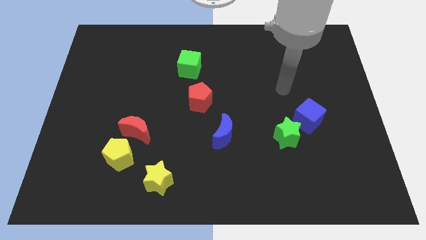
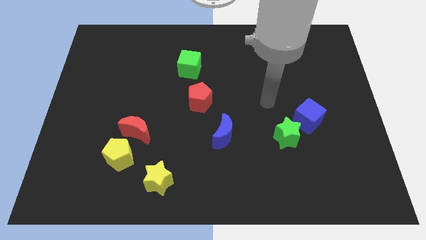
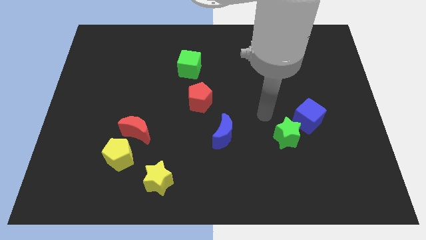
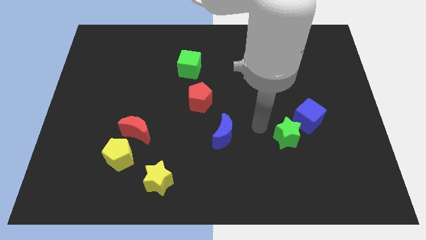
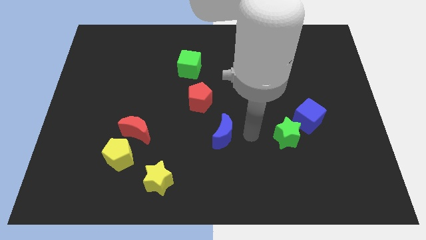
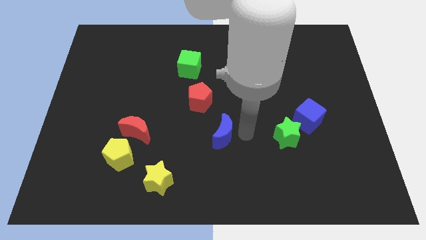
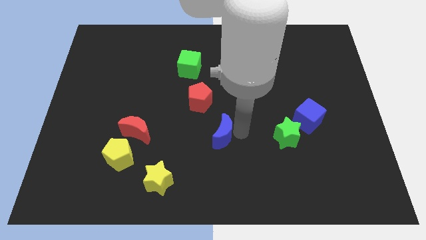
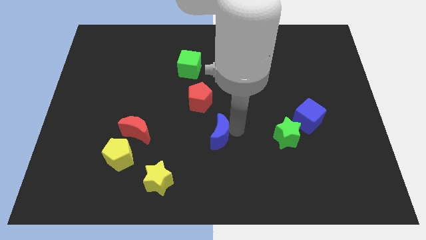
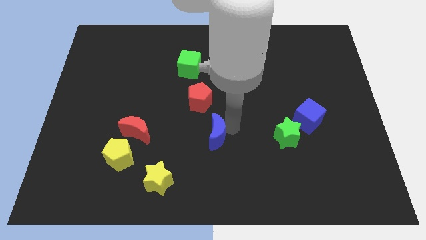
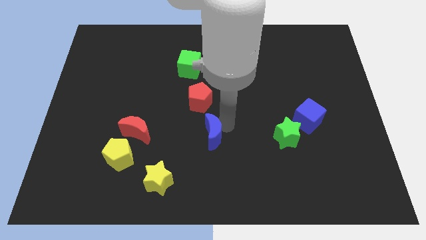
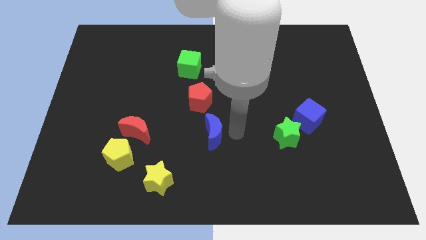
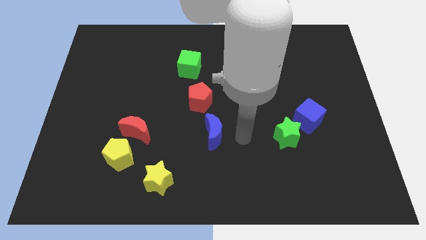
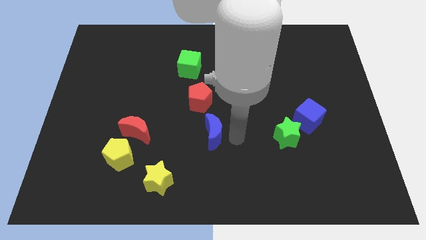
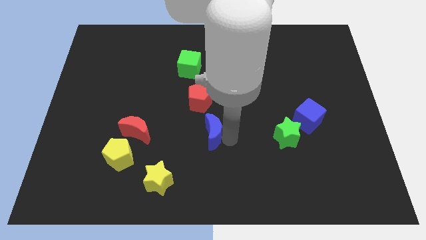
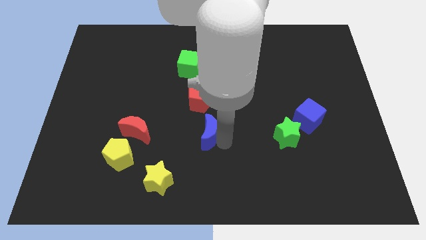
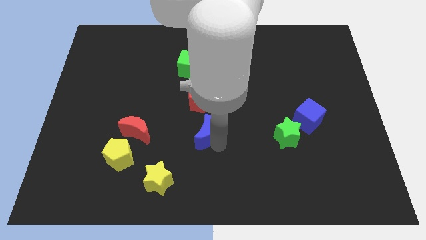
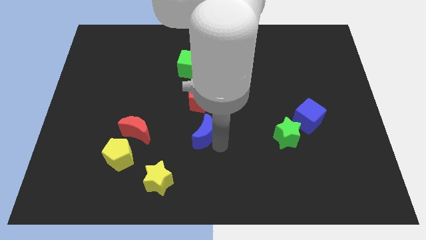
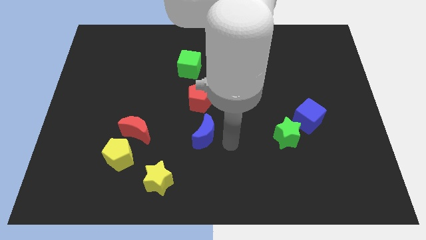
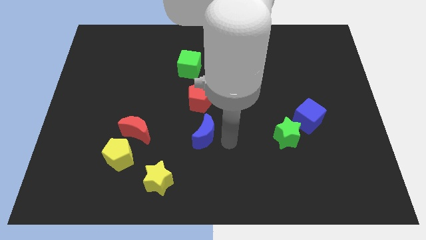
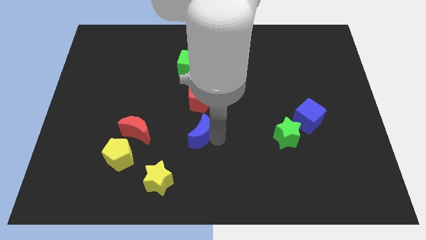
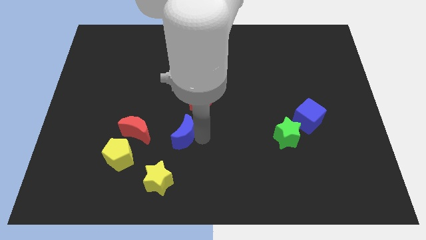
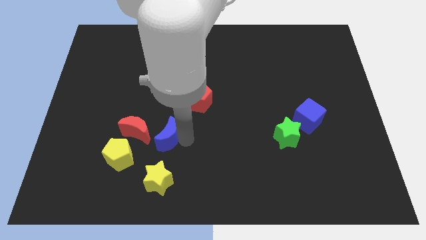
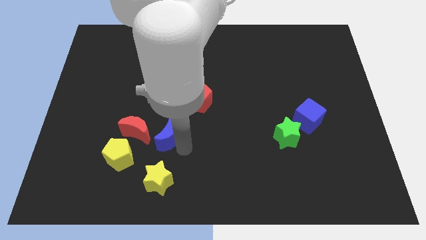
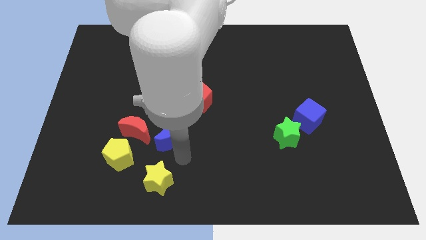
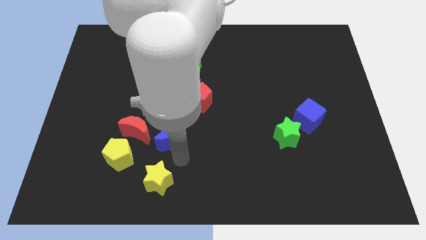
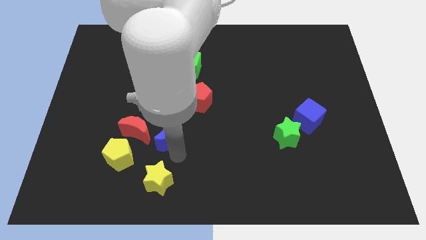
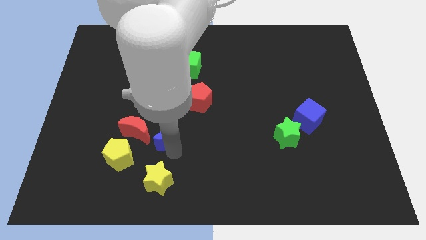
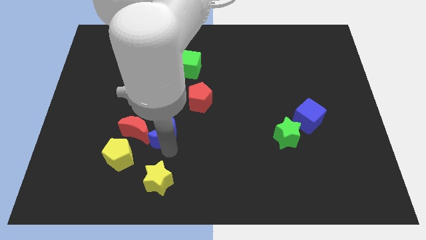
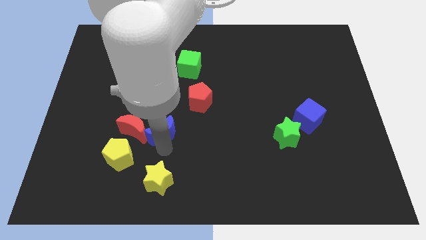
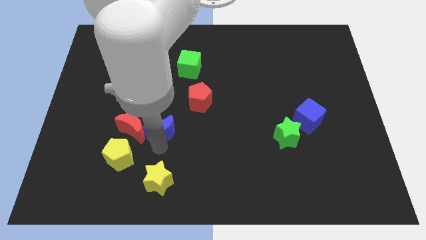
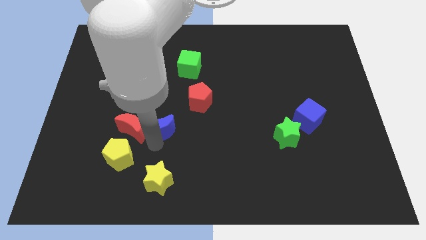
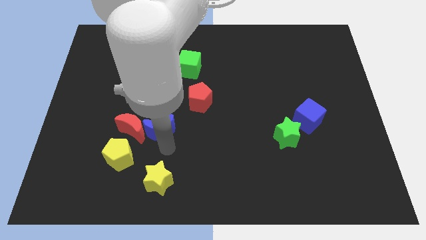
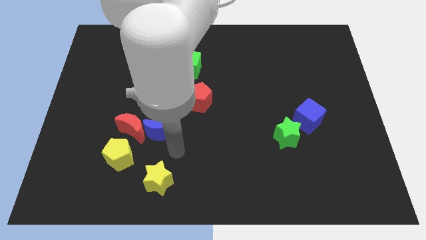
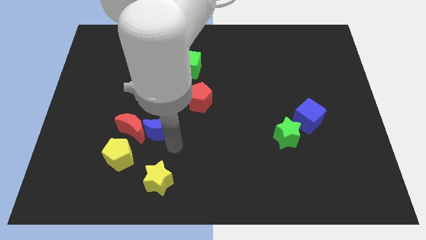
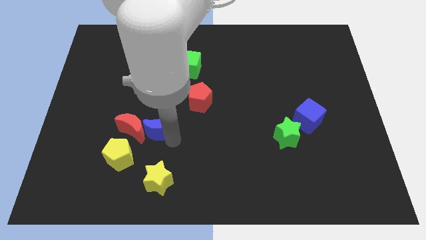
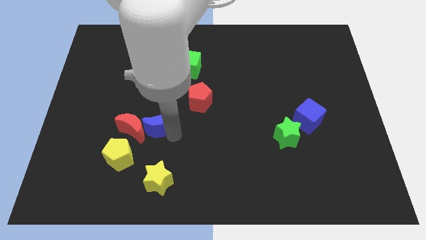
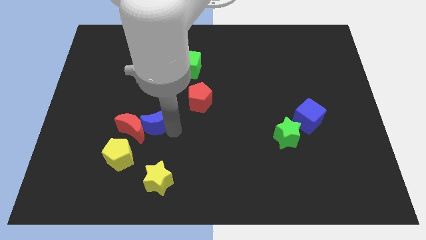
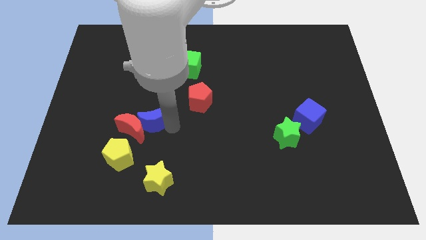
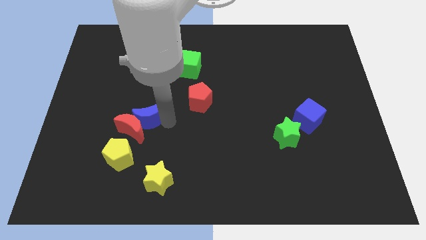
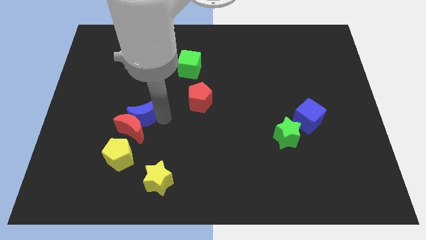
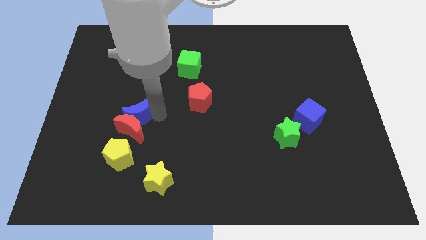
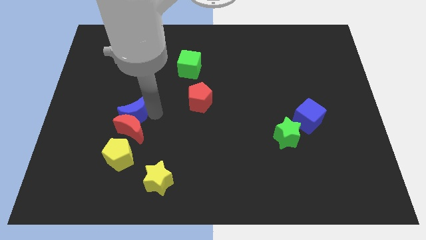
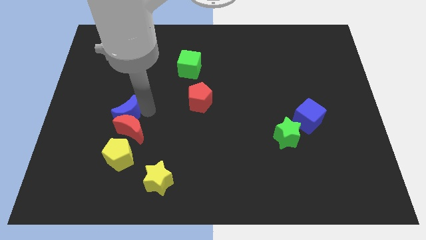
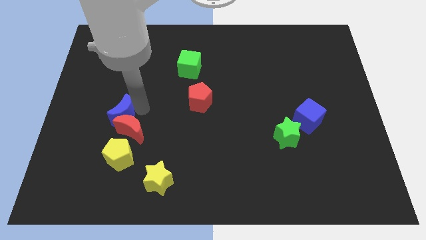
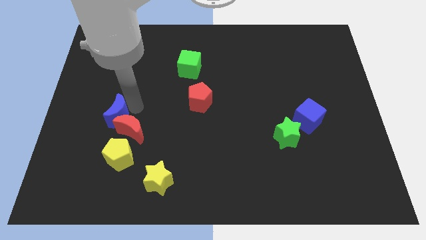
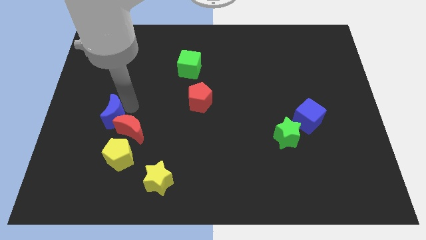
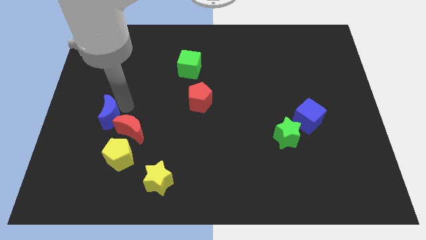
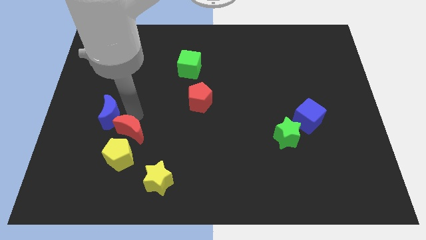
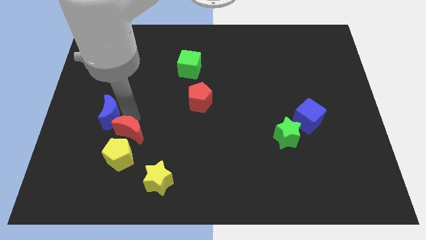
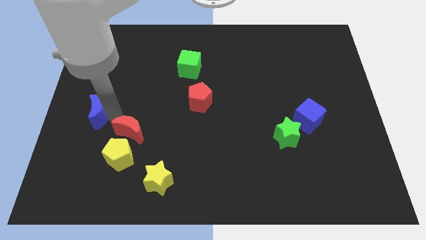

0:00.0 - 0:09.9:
slide the blue moon to the center left

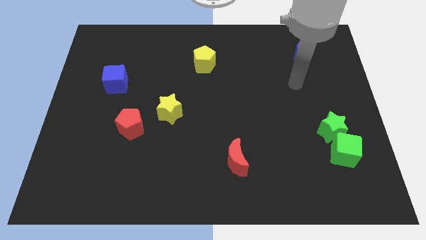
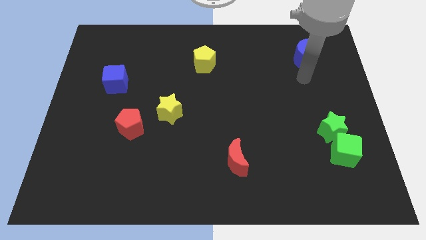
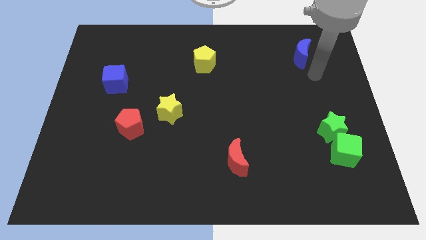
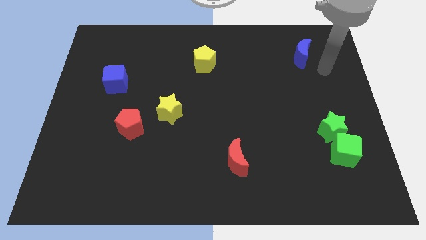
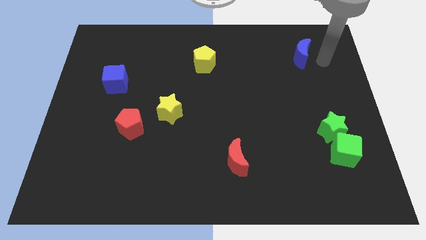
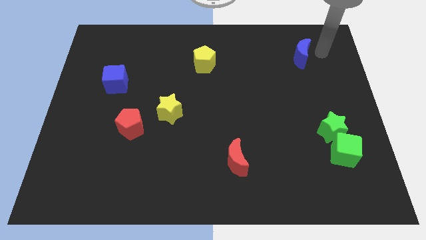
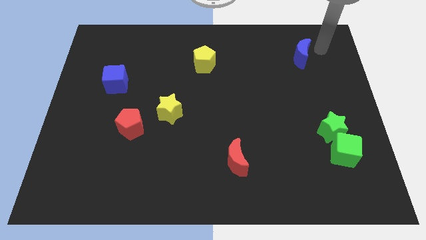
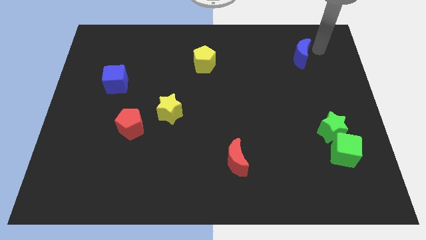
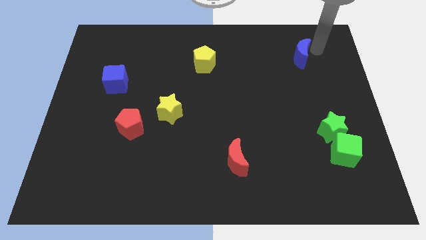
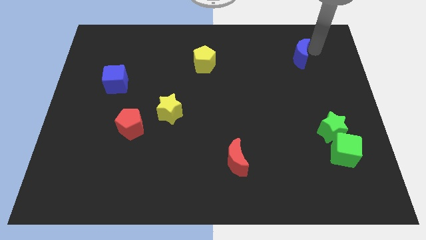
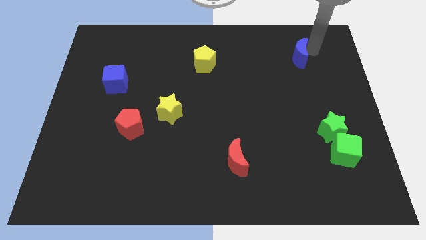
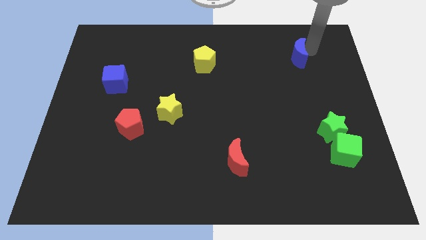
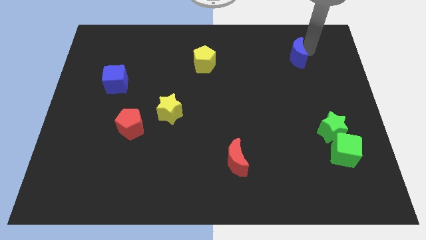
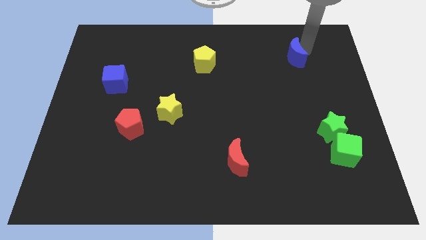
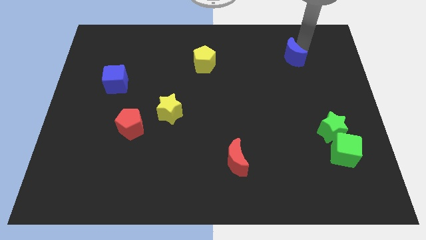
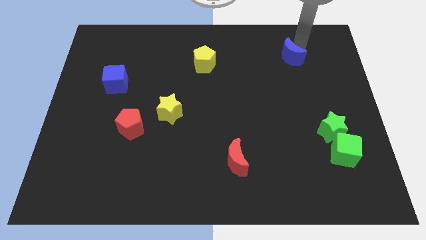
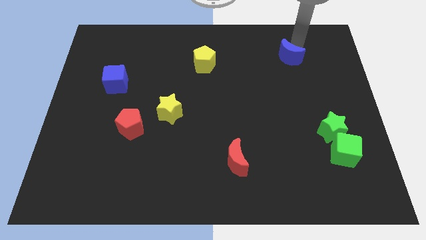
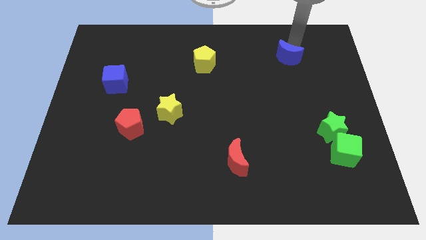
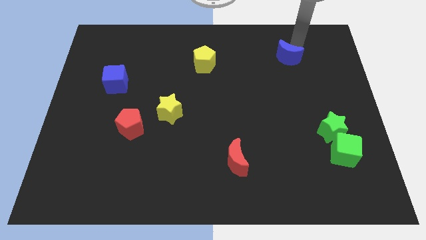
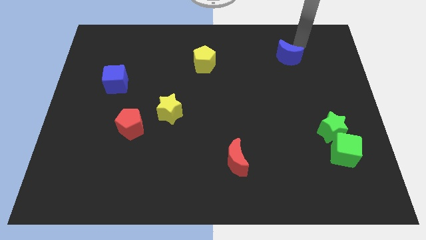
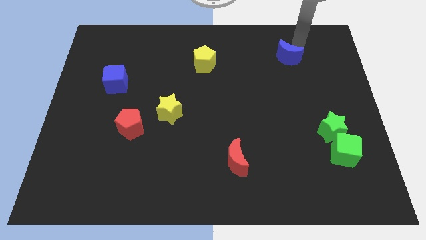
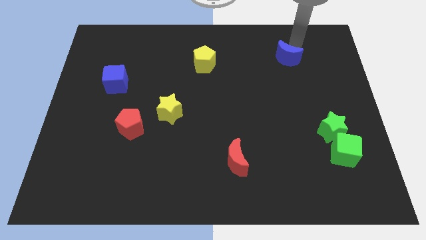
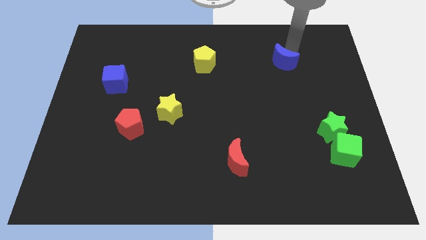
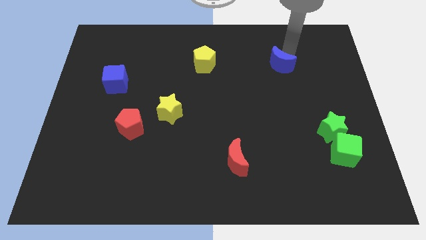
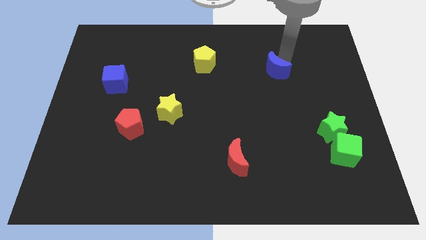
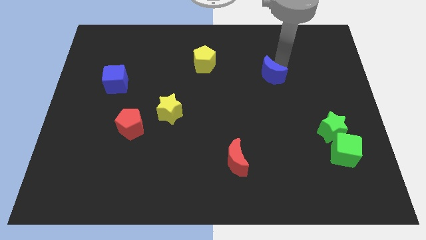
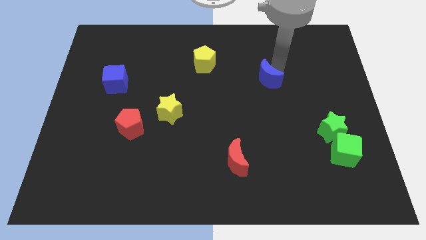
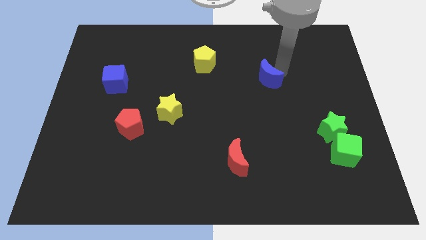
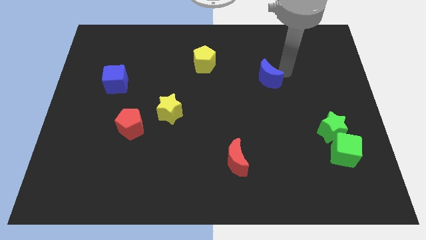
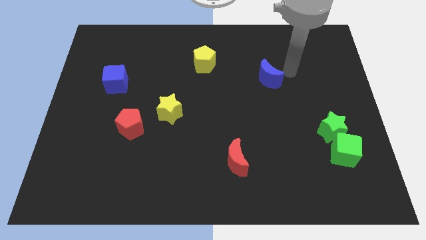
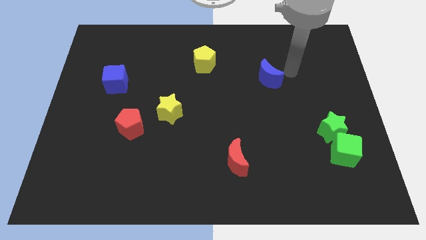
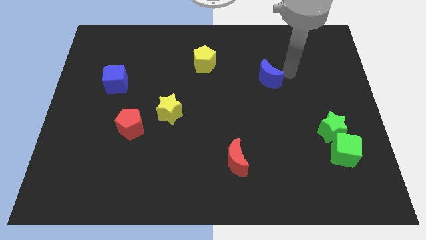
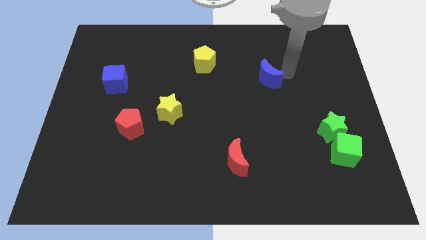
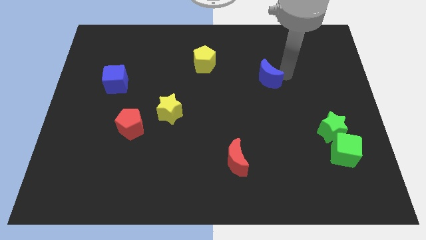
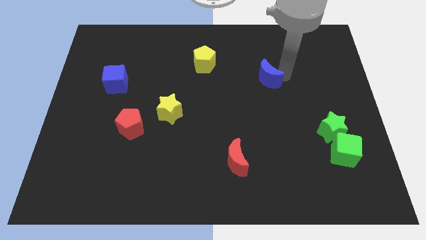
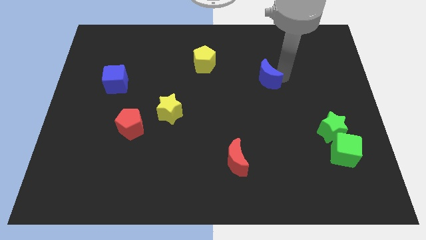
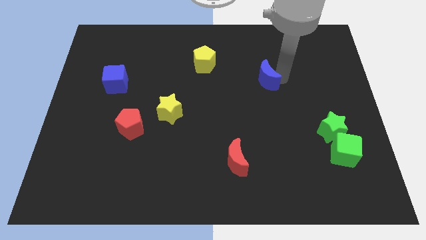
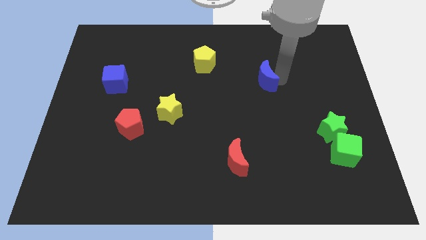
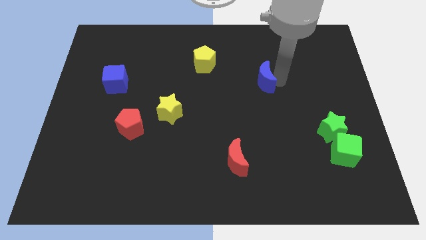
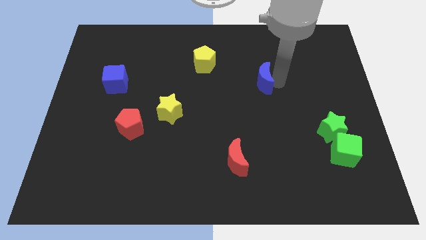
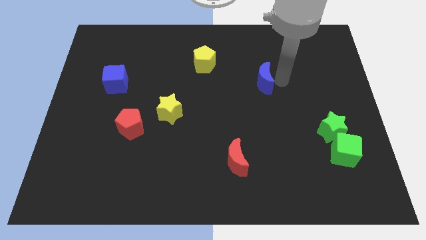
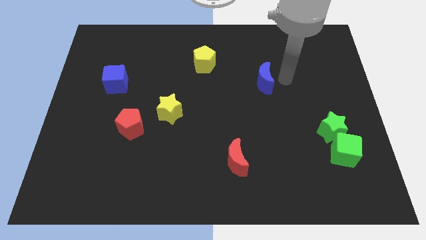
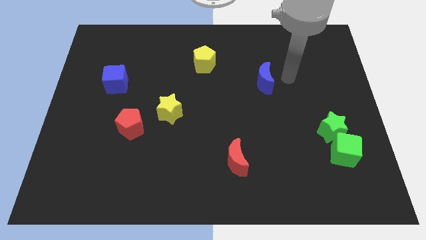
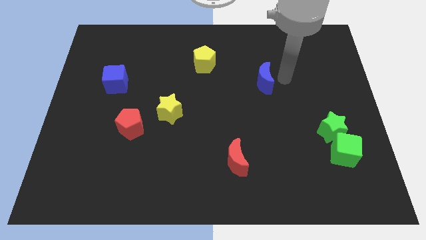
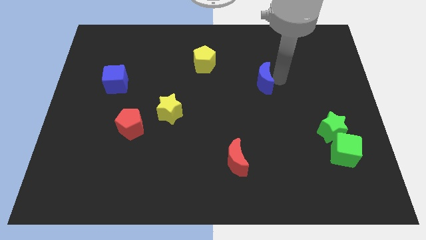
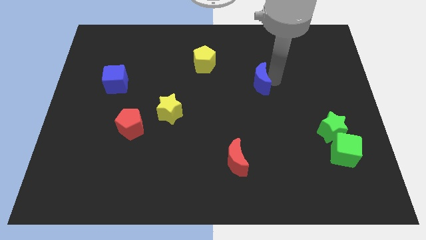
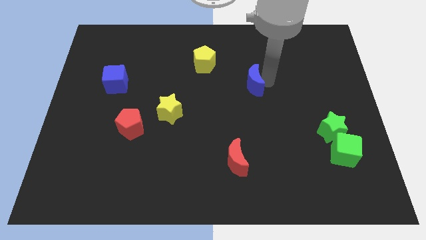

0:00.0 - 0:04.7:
put the blue moon to the center of the board
